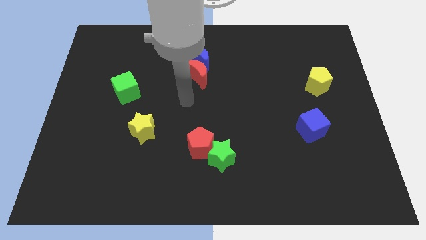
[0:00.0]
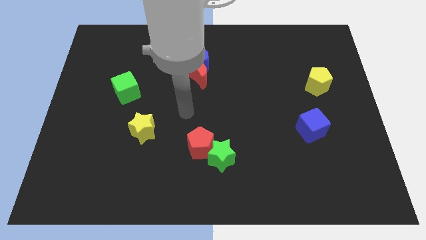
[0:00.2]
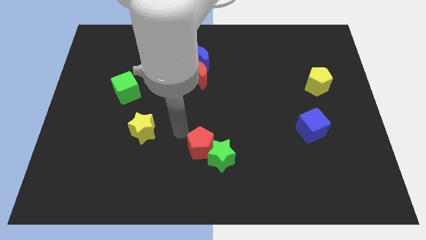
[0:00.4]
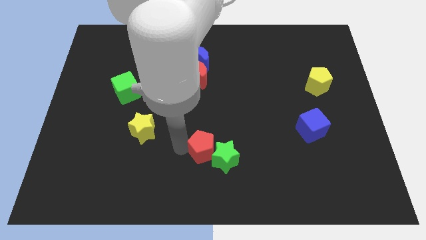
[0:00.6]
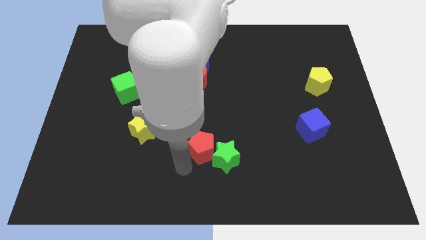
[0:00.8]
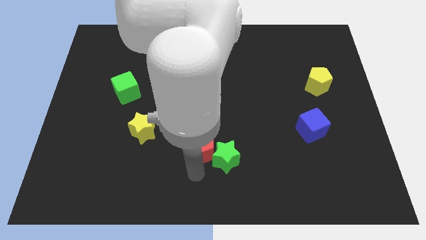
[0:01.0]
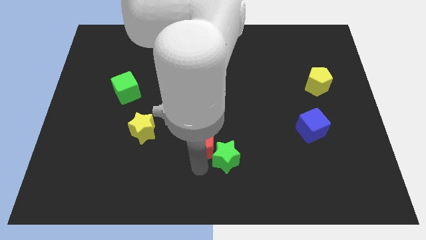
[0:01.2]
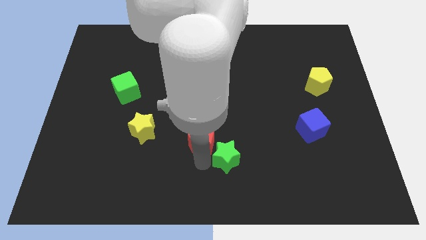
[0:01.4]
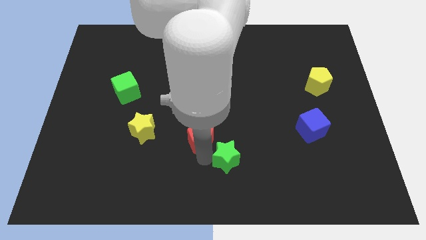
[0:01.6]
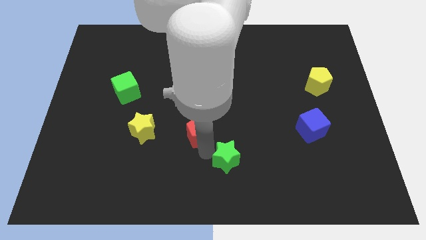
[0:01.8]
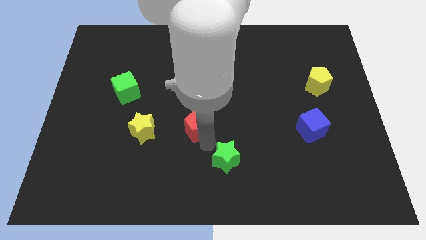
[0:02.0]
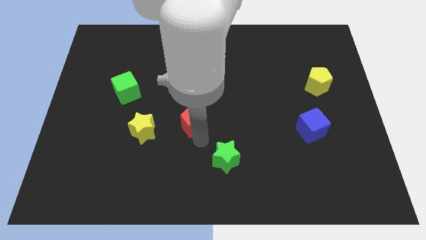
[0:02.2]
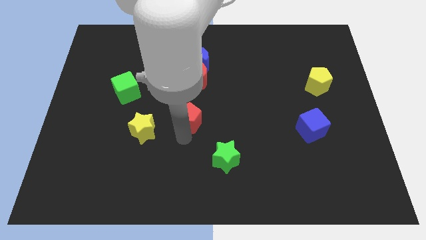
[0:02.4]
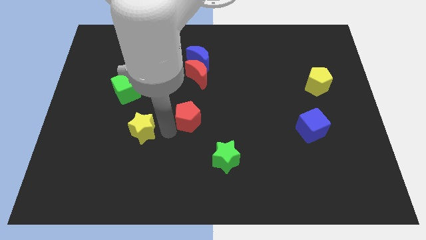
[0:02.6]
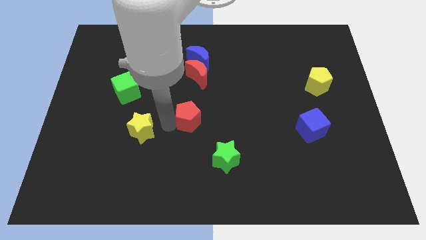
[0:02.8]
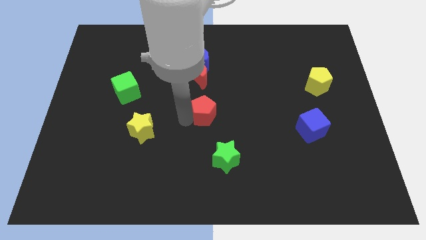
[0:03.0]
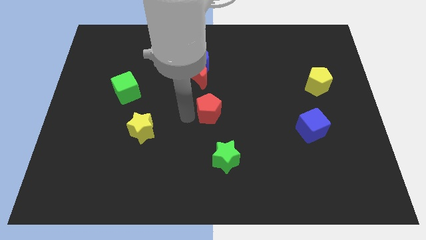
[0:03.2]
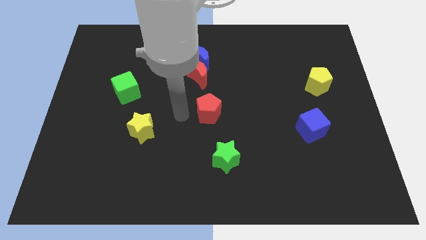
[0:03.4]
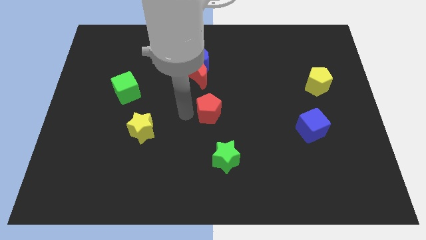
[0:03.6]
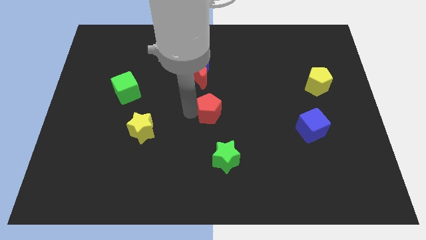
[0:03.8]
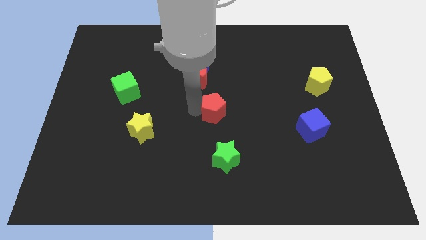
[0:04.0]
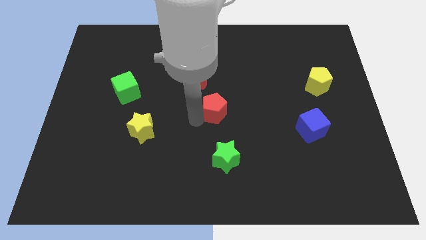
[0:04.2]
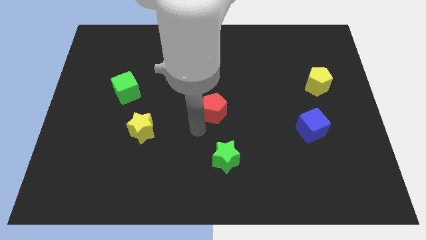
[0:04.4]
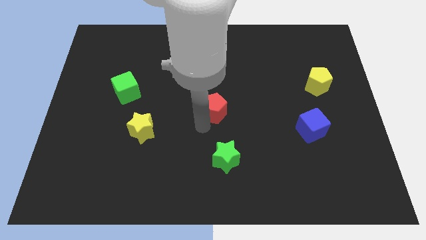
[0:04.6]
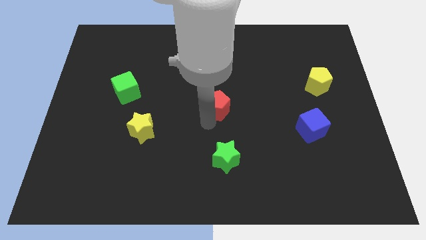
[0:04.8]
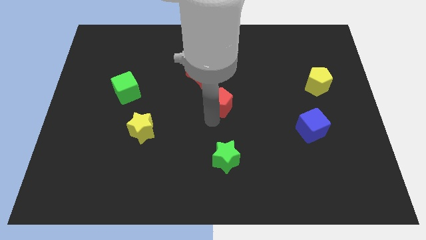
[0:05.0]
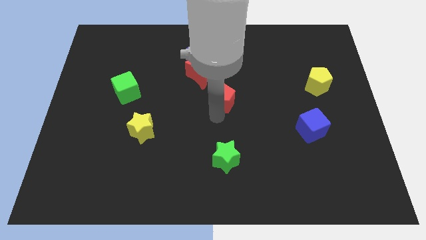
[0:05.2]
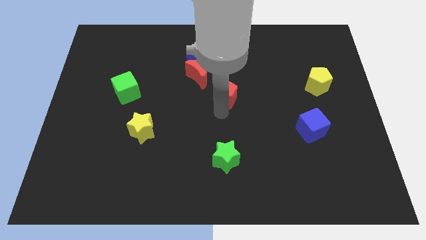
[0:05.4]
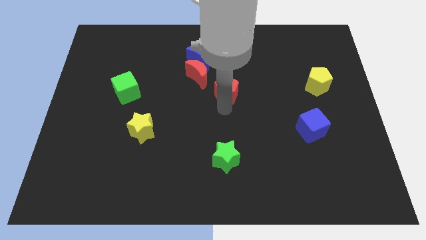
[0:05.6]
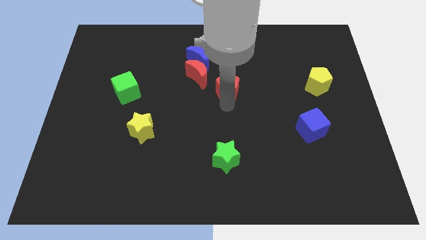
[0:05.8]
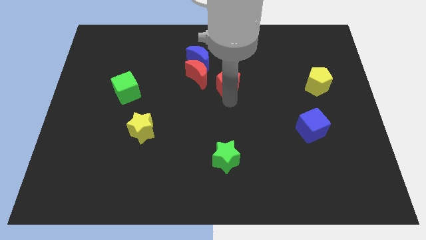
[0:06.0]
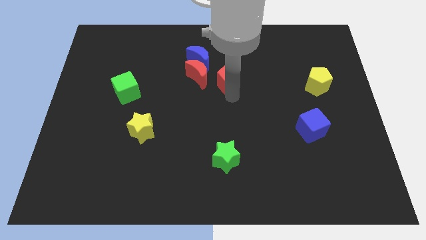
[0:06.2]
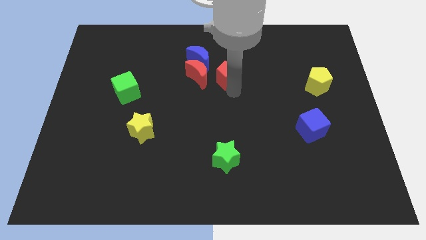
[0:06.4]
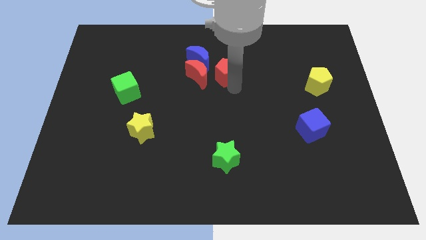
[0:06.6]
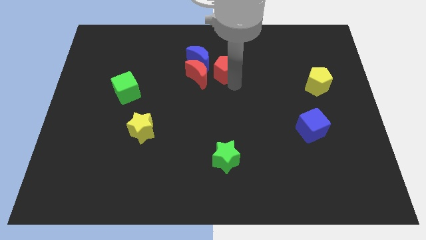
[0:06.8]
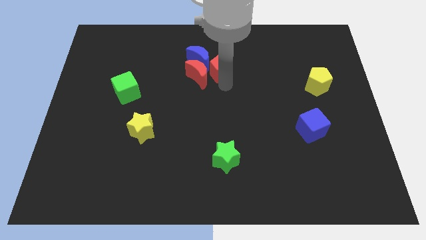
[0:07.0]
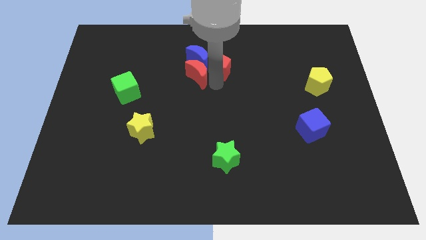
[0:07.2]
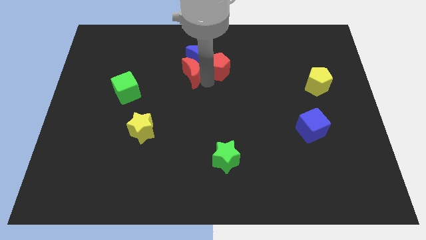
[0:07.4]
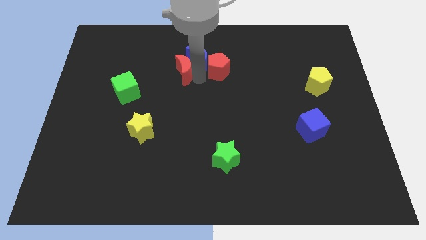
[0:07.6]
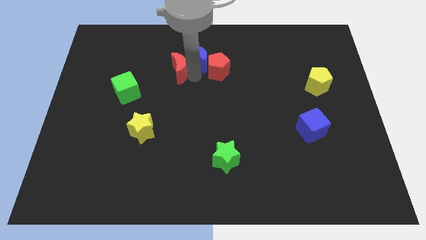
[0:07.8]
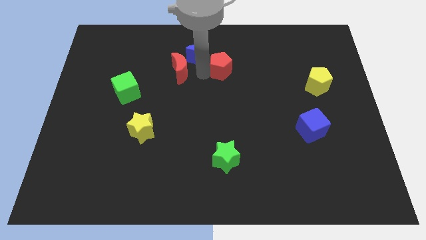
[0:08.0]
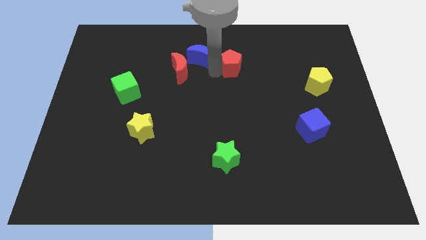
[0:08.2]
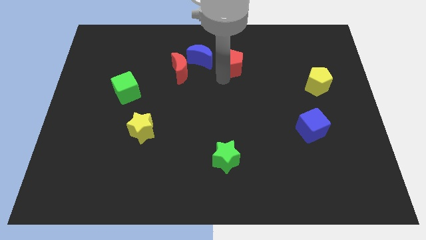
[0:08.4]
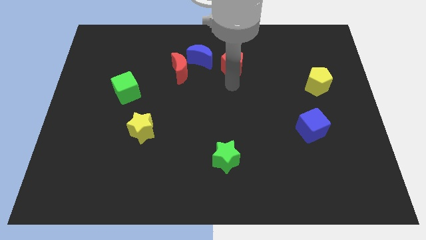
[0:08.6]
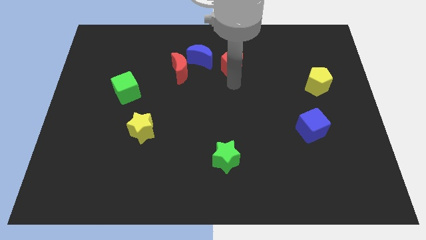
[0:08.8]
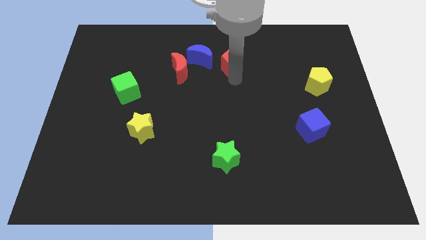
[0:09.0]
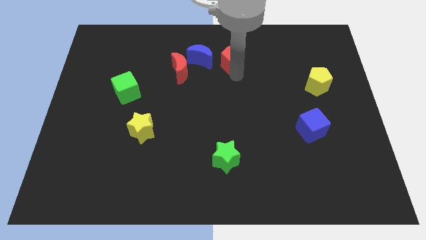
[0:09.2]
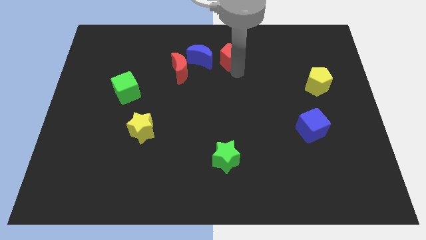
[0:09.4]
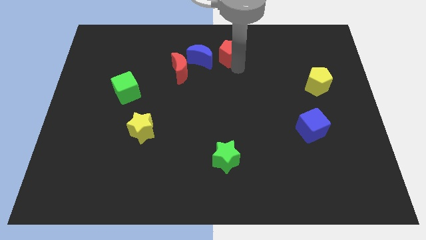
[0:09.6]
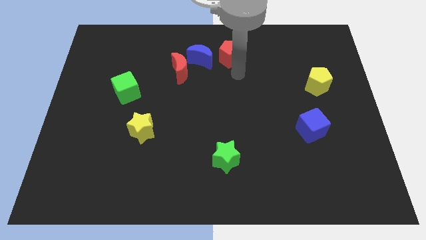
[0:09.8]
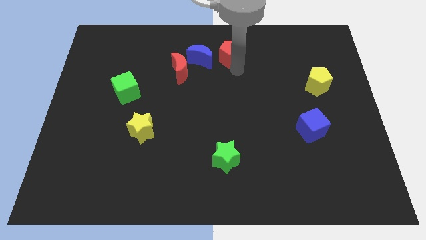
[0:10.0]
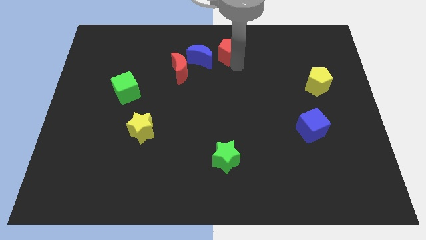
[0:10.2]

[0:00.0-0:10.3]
put the red pentagon to the top side

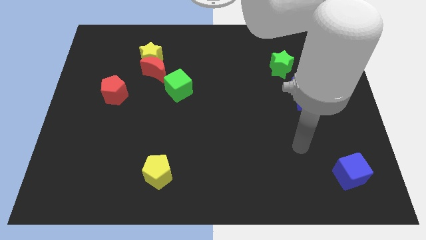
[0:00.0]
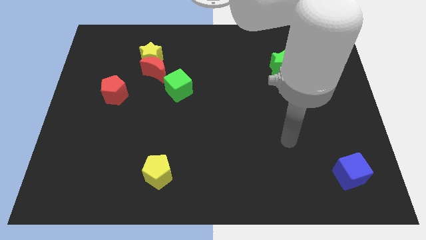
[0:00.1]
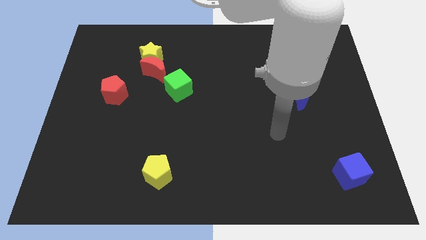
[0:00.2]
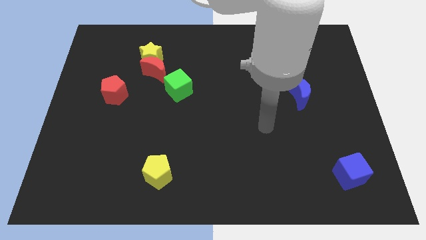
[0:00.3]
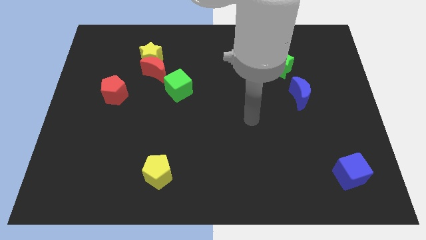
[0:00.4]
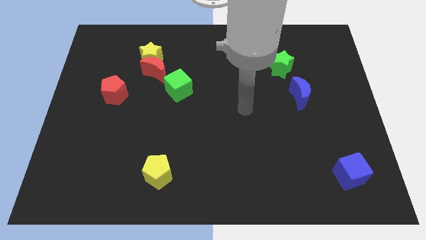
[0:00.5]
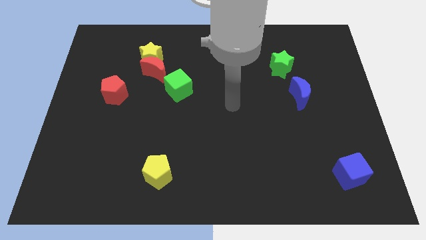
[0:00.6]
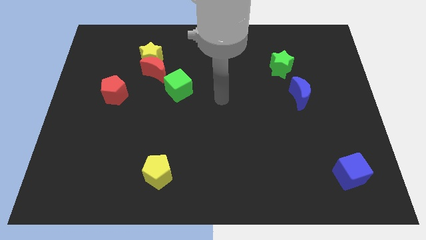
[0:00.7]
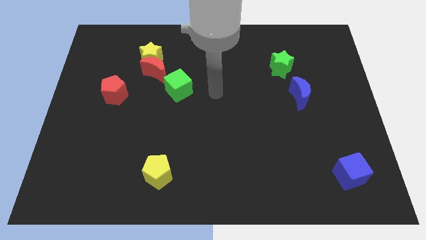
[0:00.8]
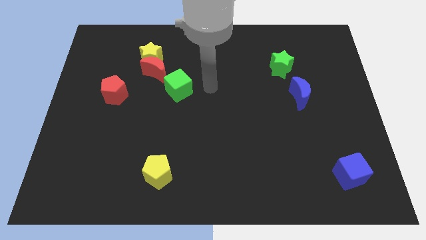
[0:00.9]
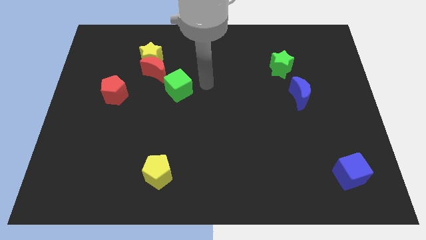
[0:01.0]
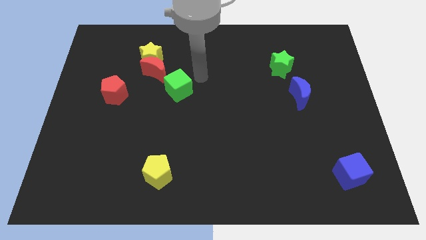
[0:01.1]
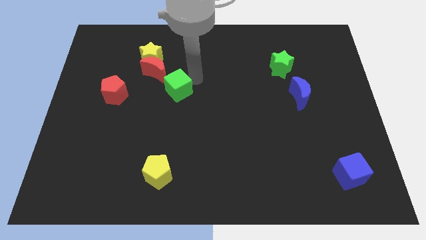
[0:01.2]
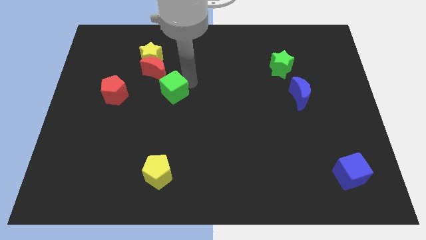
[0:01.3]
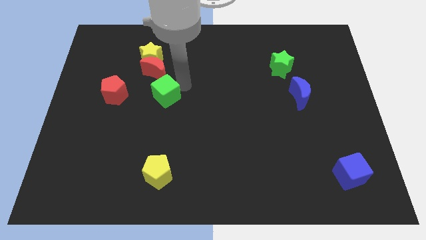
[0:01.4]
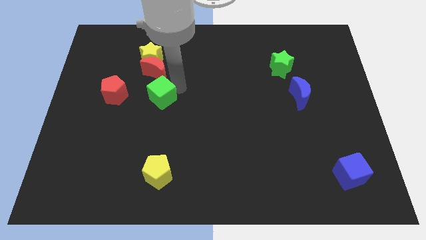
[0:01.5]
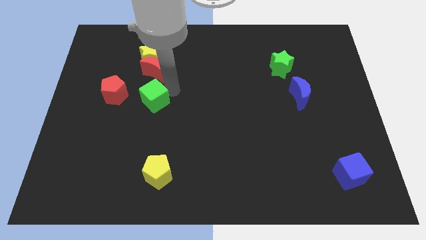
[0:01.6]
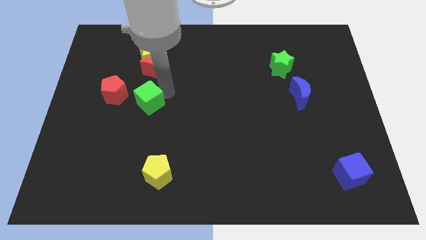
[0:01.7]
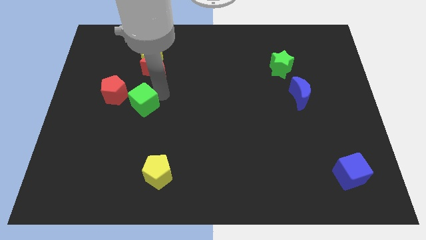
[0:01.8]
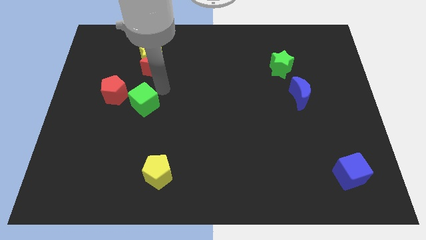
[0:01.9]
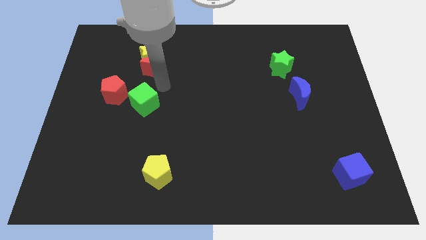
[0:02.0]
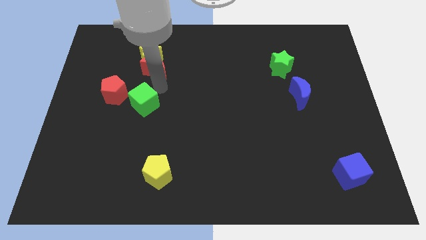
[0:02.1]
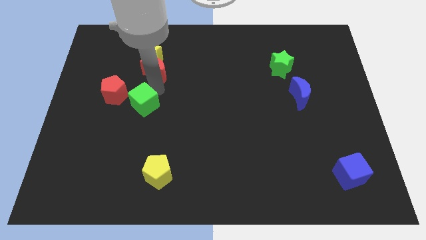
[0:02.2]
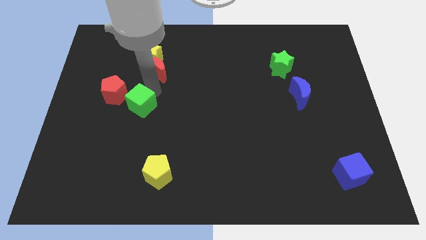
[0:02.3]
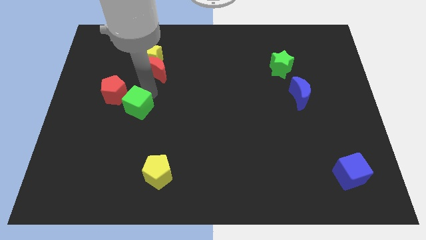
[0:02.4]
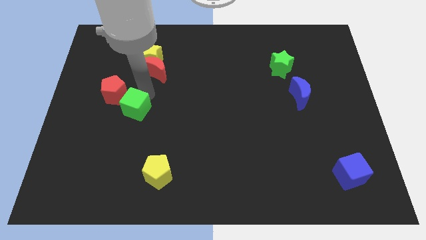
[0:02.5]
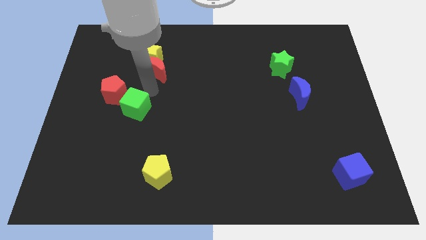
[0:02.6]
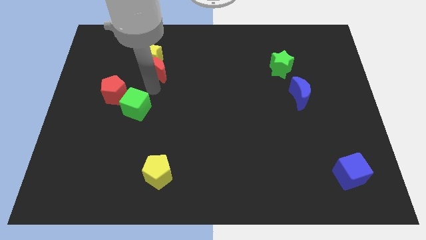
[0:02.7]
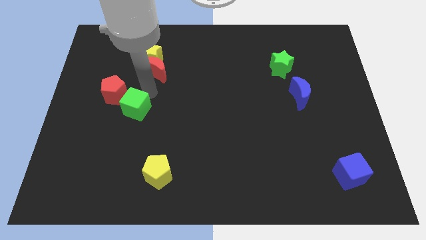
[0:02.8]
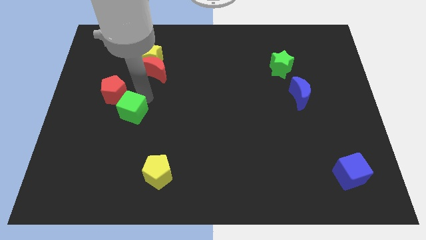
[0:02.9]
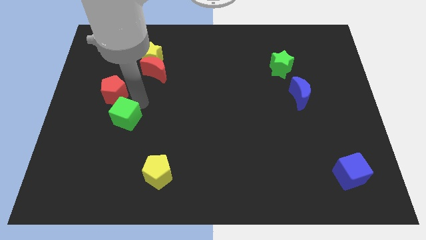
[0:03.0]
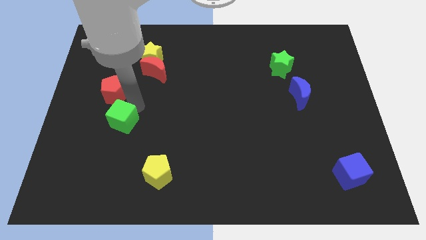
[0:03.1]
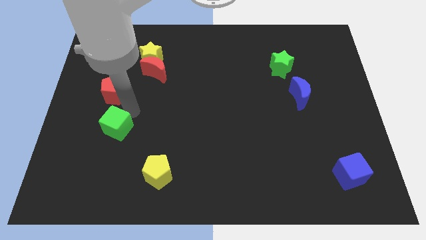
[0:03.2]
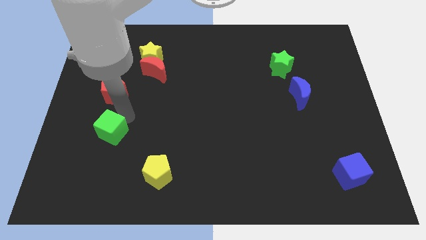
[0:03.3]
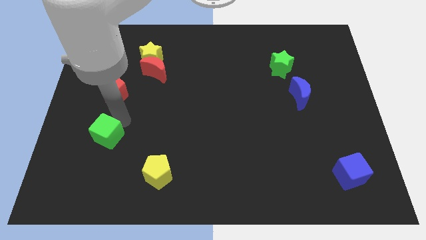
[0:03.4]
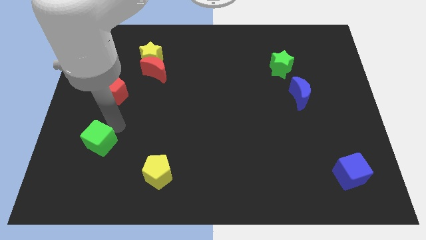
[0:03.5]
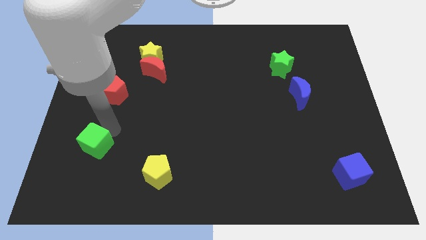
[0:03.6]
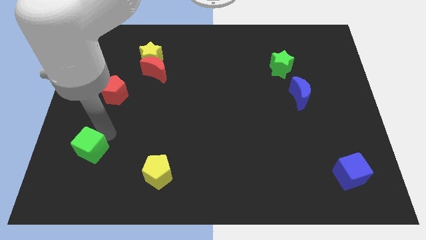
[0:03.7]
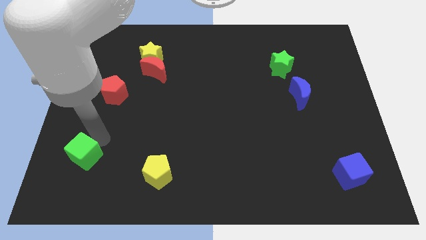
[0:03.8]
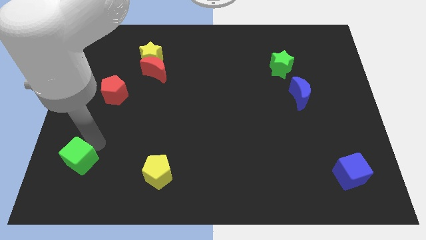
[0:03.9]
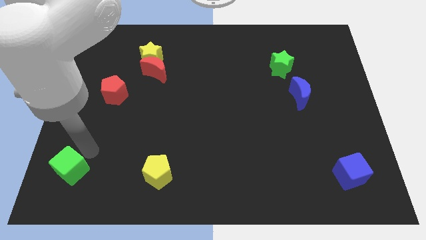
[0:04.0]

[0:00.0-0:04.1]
push the green cube to the lower left corner
